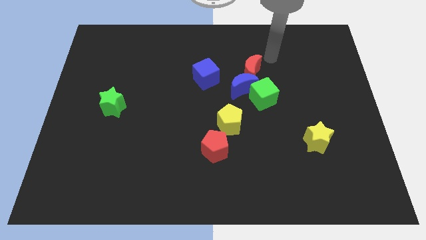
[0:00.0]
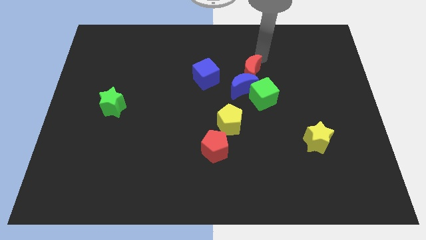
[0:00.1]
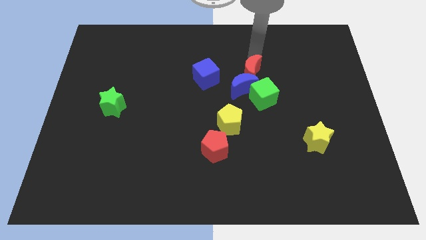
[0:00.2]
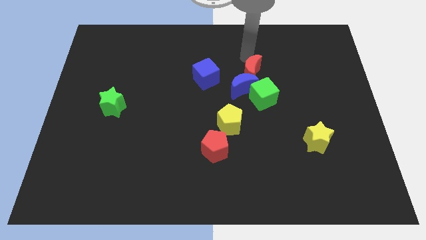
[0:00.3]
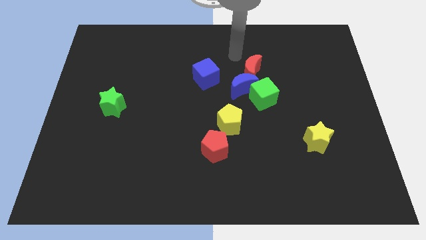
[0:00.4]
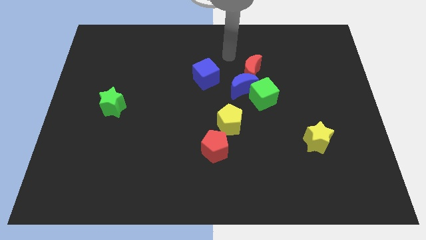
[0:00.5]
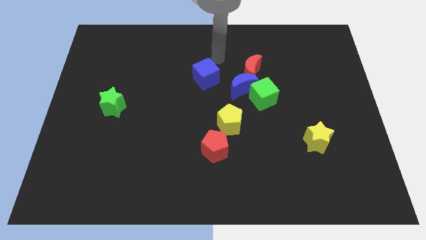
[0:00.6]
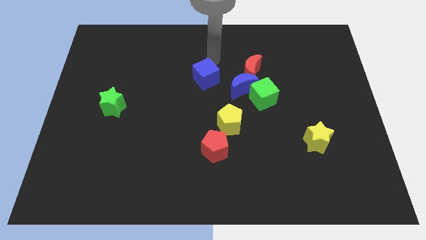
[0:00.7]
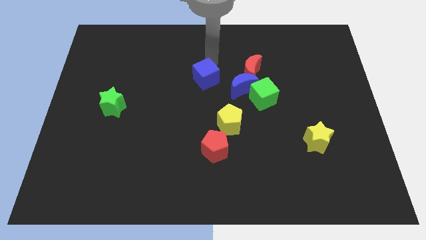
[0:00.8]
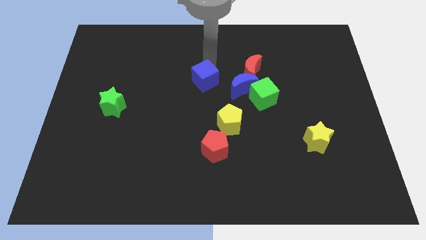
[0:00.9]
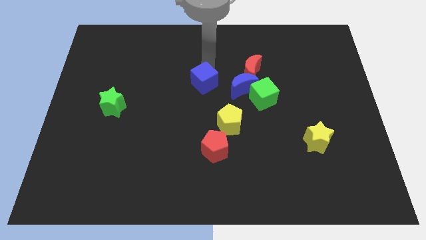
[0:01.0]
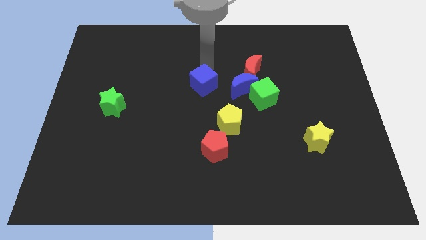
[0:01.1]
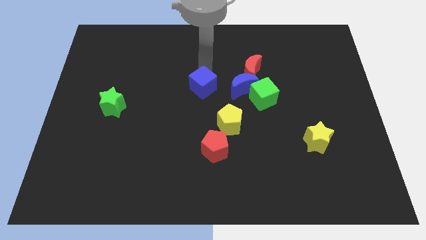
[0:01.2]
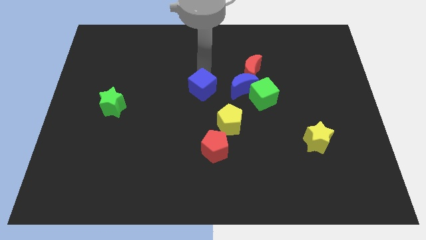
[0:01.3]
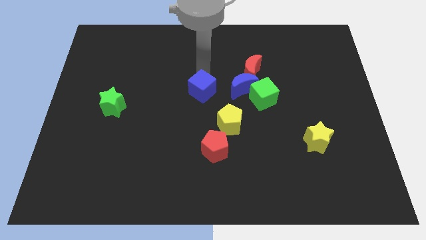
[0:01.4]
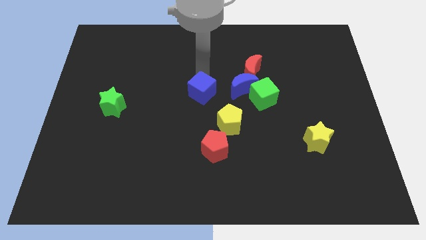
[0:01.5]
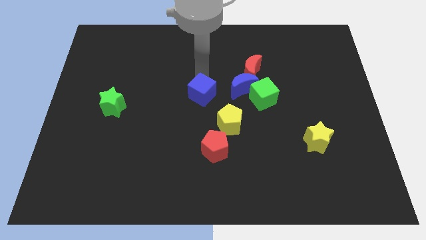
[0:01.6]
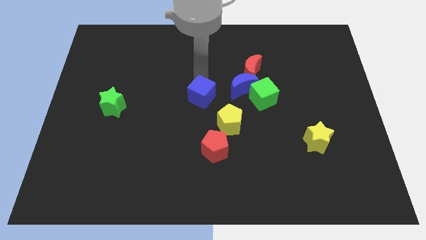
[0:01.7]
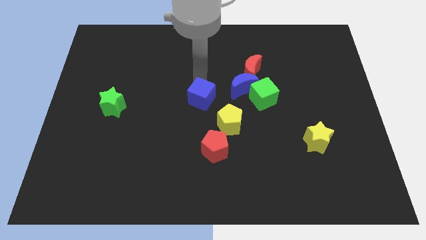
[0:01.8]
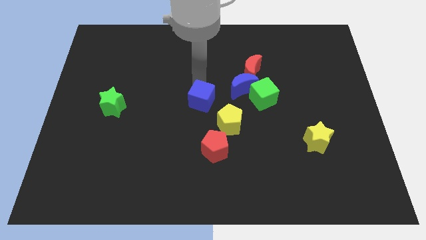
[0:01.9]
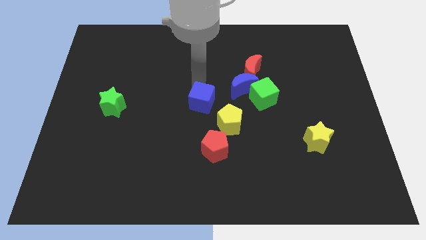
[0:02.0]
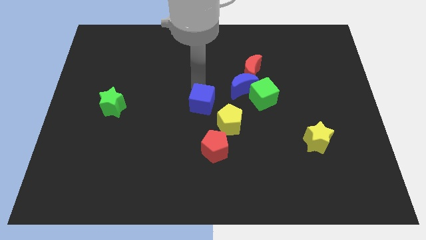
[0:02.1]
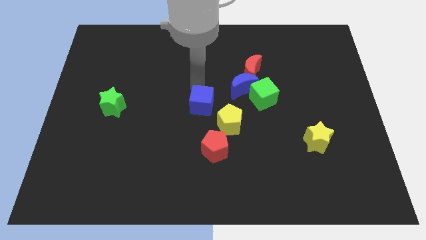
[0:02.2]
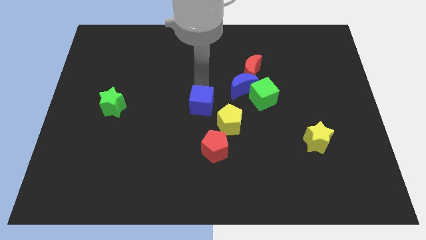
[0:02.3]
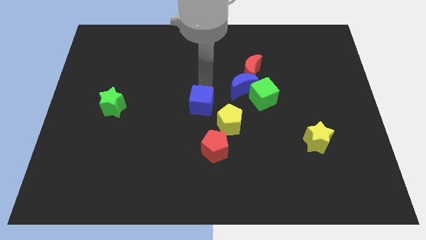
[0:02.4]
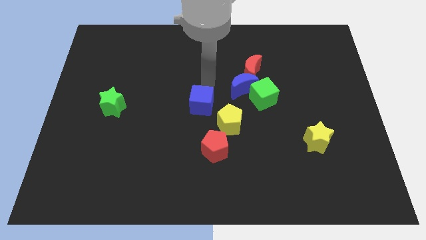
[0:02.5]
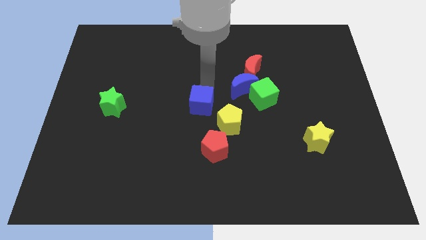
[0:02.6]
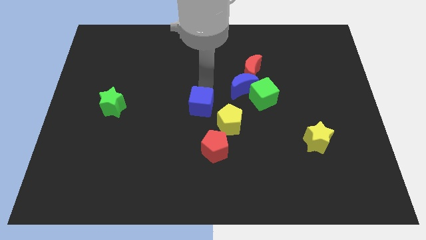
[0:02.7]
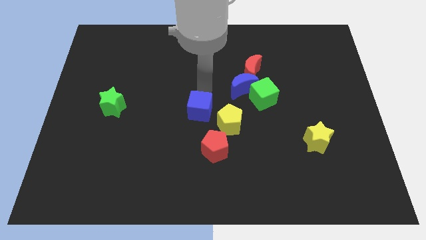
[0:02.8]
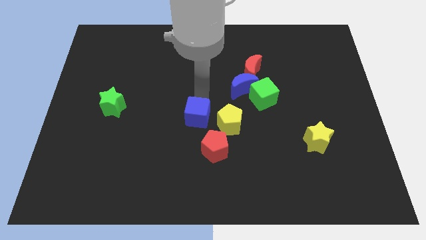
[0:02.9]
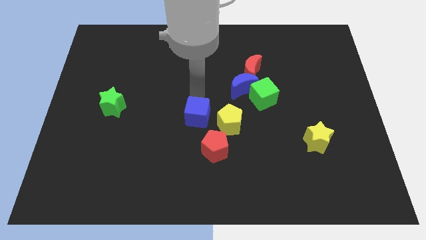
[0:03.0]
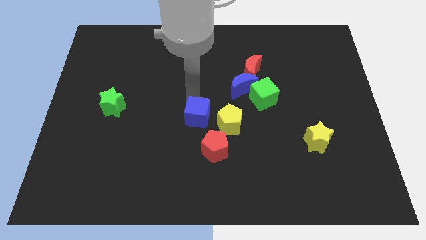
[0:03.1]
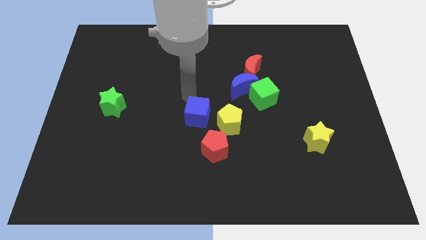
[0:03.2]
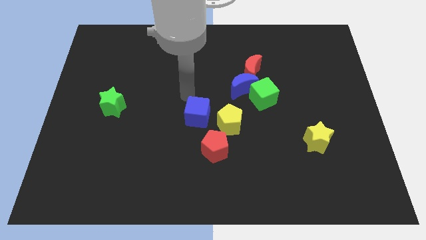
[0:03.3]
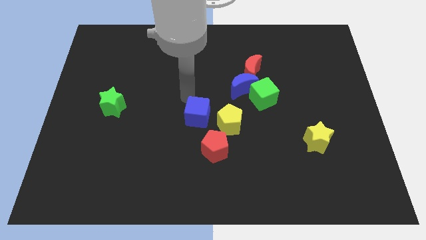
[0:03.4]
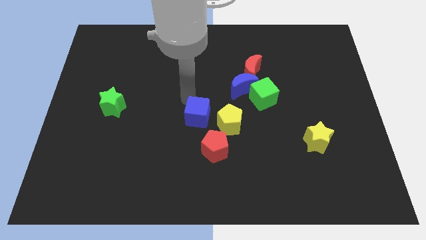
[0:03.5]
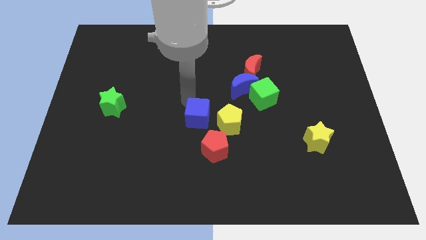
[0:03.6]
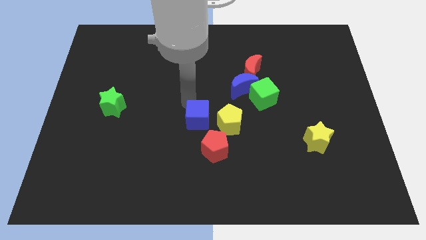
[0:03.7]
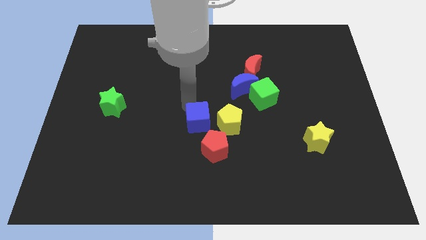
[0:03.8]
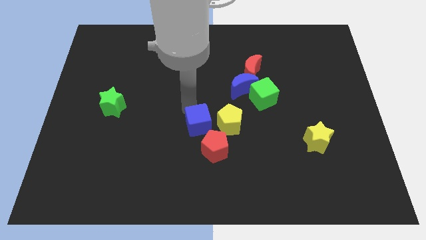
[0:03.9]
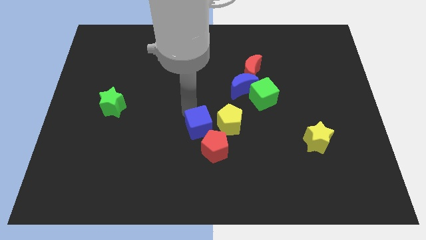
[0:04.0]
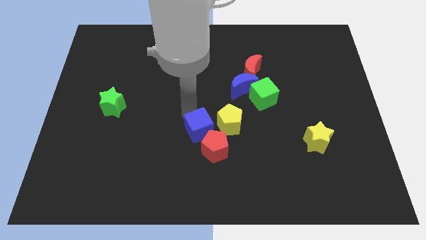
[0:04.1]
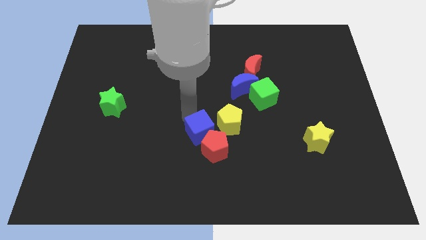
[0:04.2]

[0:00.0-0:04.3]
push the blue cube close to the red pentagon

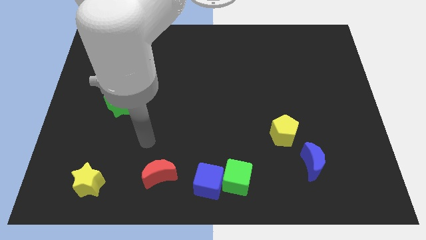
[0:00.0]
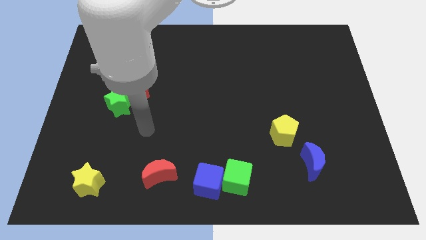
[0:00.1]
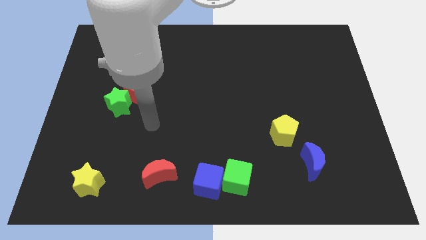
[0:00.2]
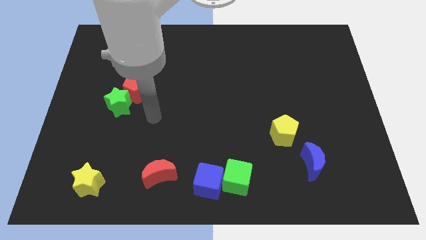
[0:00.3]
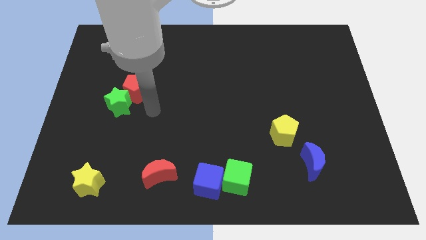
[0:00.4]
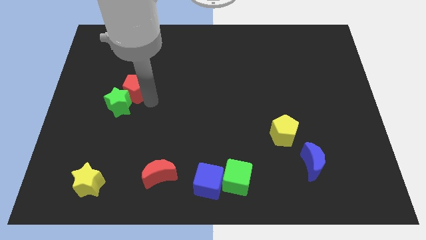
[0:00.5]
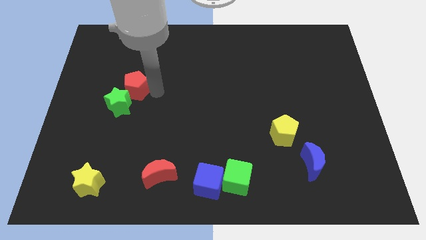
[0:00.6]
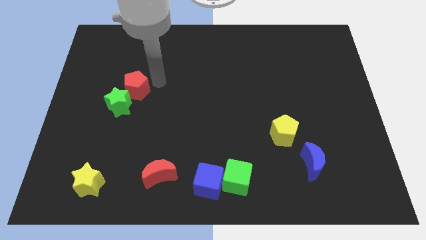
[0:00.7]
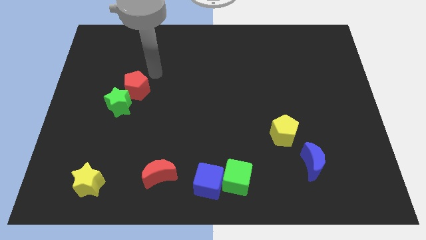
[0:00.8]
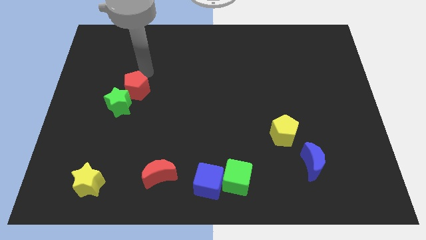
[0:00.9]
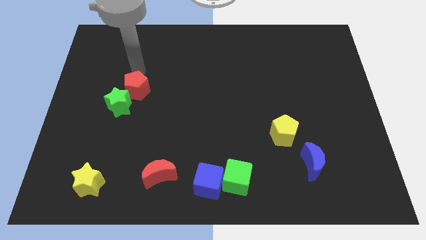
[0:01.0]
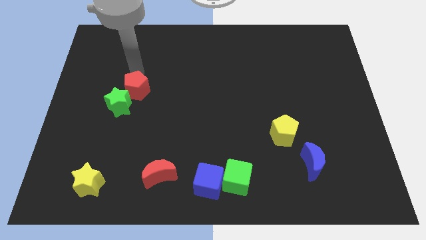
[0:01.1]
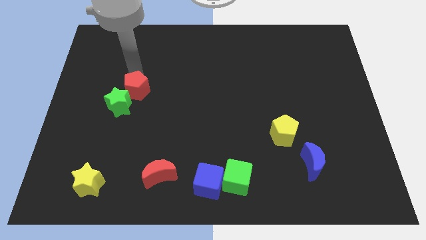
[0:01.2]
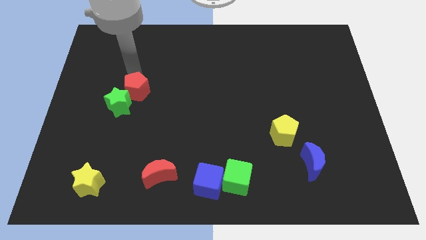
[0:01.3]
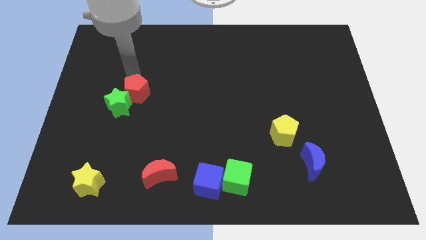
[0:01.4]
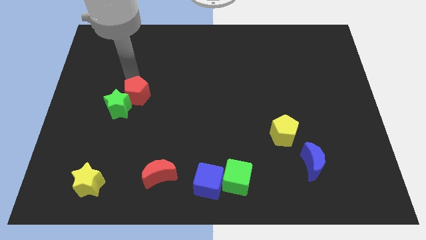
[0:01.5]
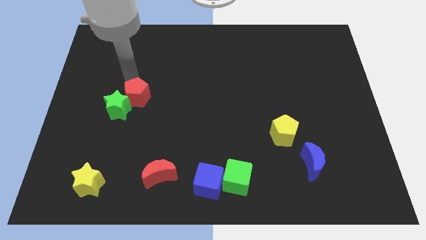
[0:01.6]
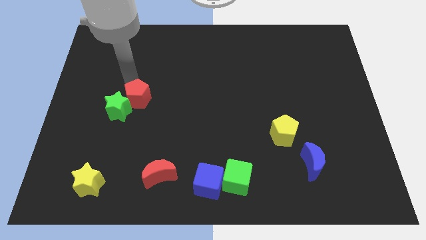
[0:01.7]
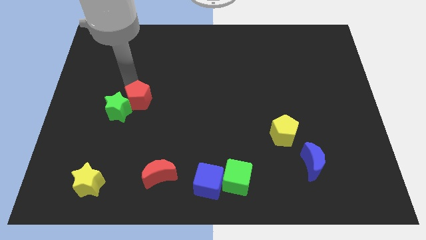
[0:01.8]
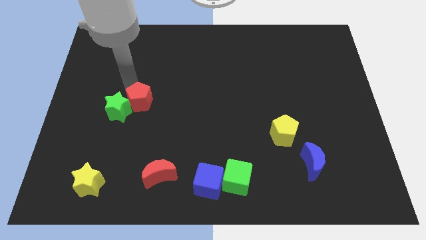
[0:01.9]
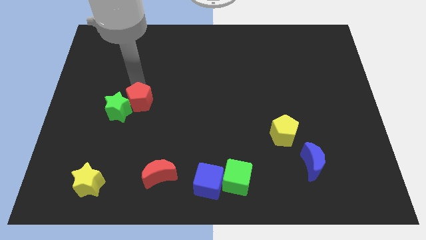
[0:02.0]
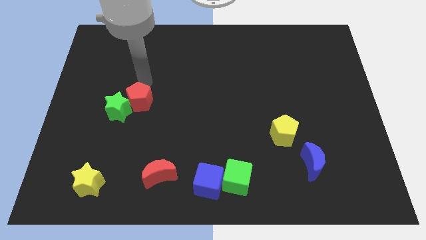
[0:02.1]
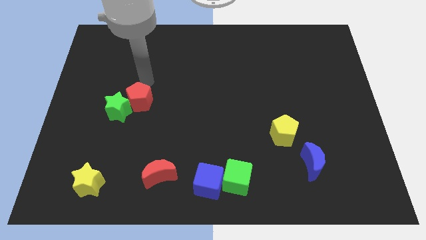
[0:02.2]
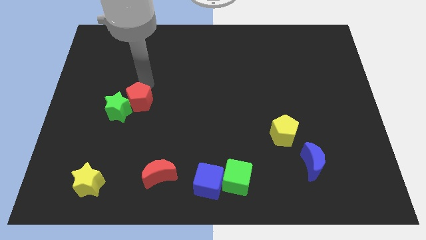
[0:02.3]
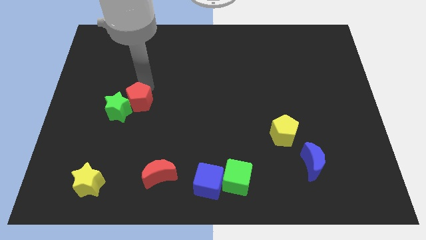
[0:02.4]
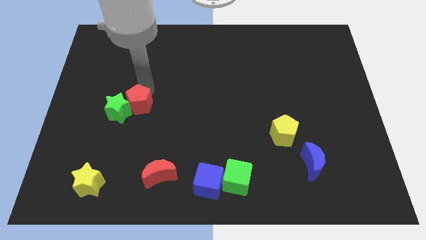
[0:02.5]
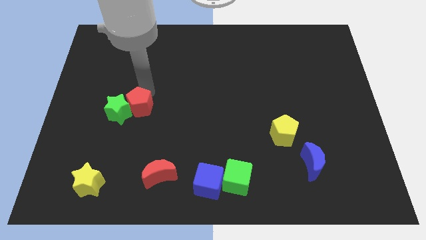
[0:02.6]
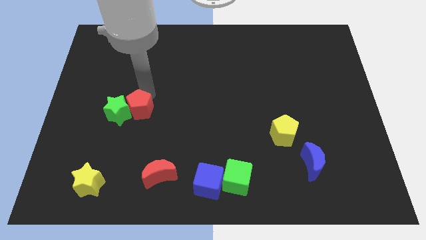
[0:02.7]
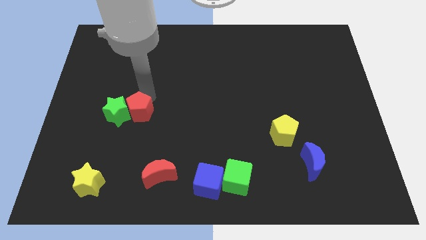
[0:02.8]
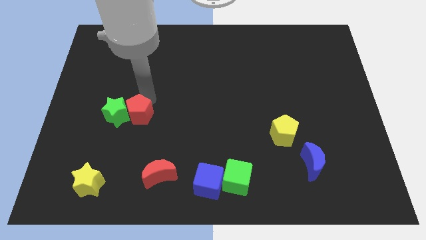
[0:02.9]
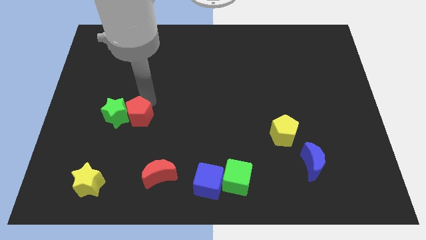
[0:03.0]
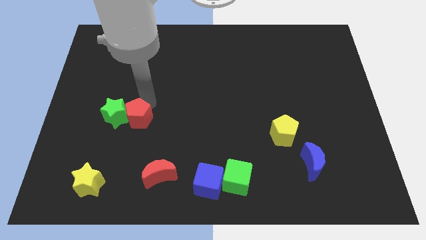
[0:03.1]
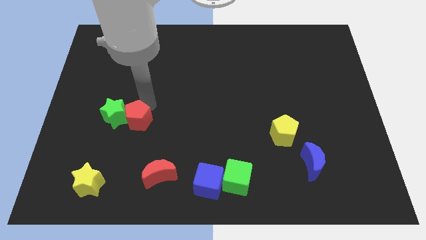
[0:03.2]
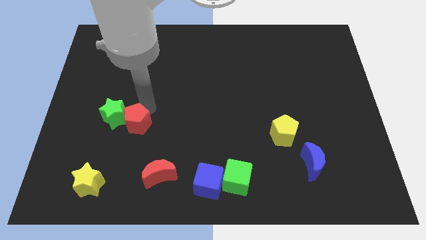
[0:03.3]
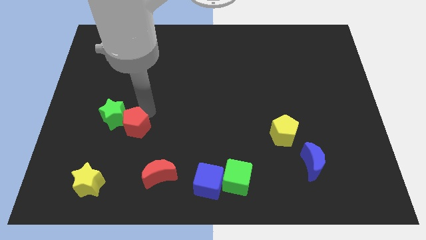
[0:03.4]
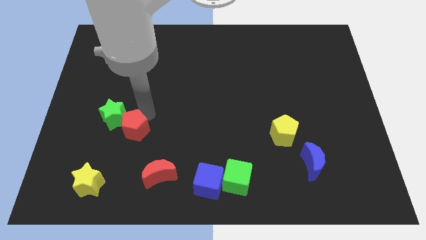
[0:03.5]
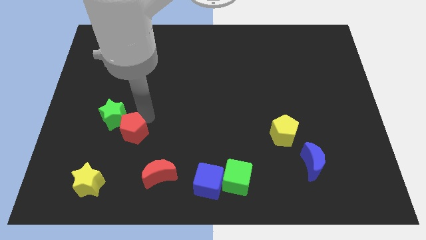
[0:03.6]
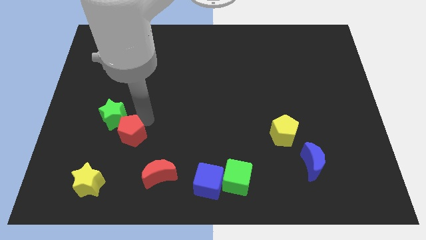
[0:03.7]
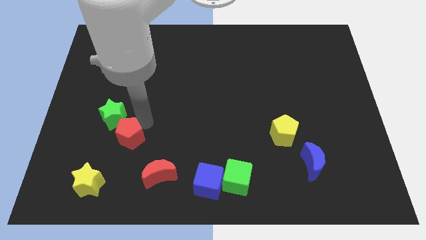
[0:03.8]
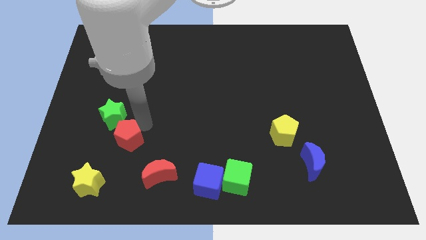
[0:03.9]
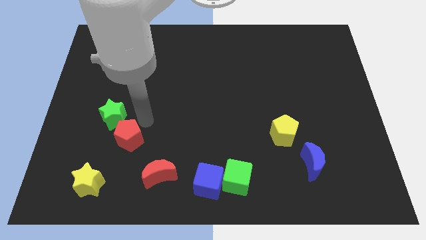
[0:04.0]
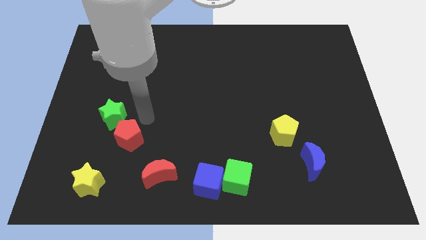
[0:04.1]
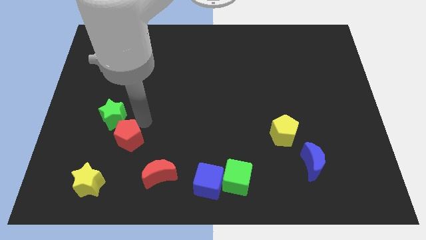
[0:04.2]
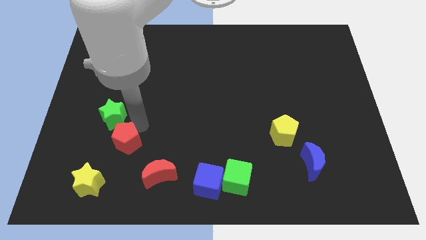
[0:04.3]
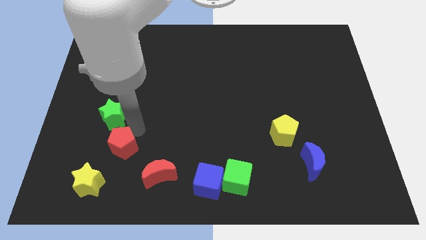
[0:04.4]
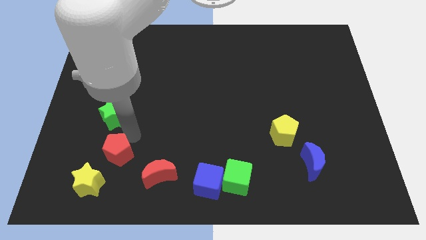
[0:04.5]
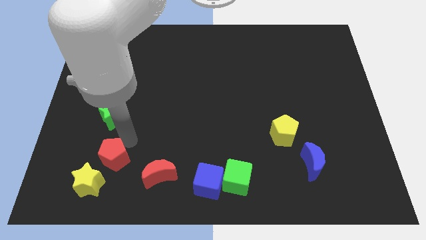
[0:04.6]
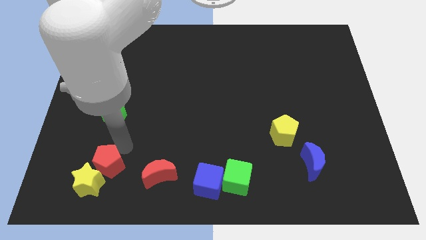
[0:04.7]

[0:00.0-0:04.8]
move the red pentagon towards the yellow star
